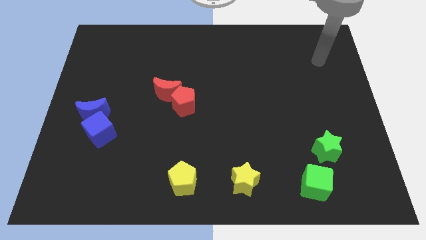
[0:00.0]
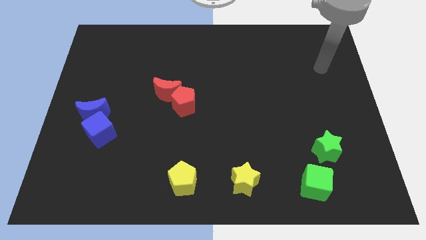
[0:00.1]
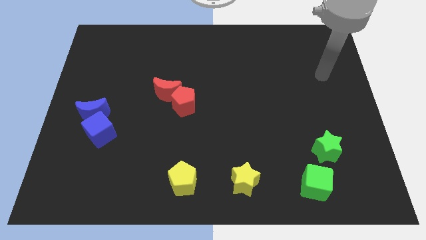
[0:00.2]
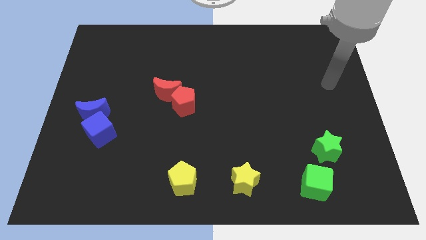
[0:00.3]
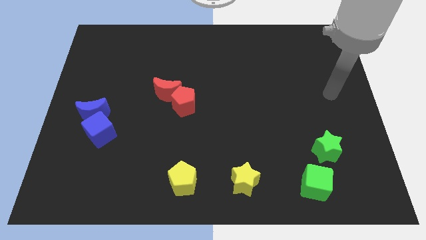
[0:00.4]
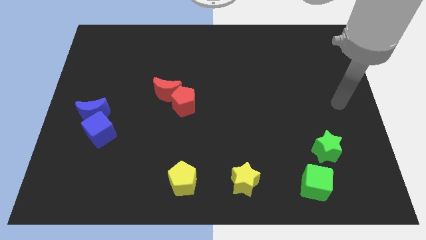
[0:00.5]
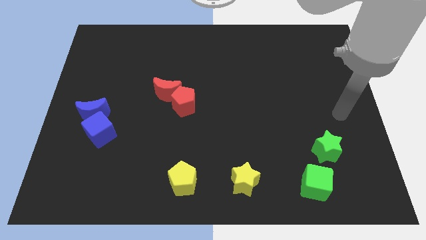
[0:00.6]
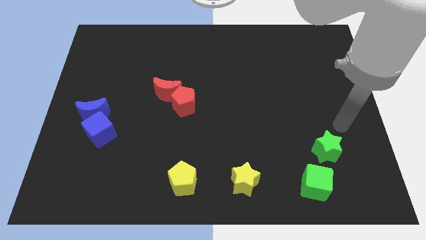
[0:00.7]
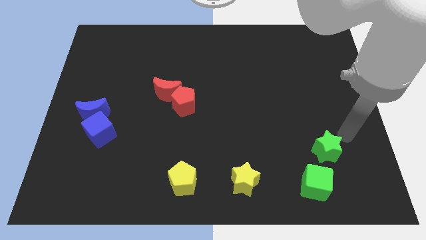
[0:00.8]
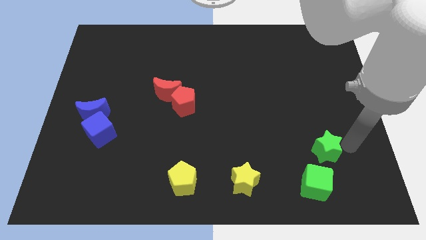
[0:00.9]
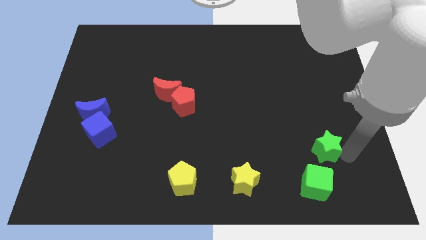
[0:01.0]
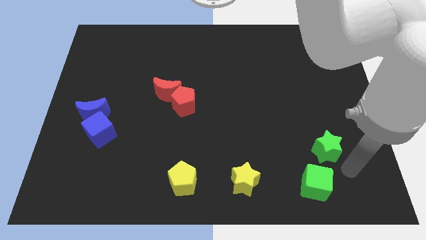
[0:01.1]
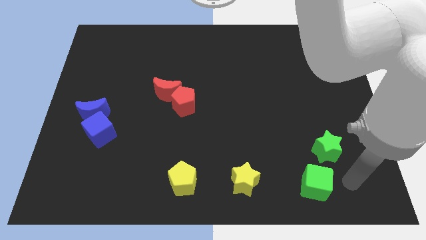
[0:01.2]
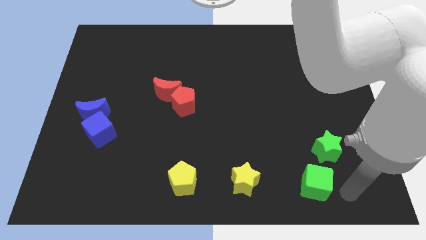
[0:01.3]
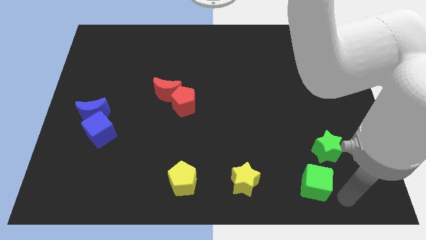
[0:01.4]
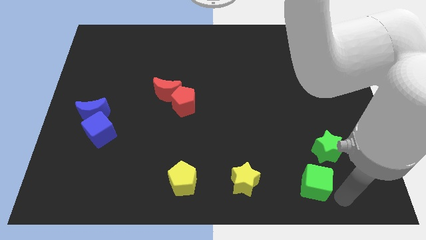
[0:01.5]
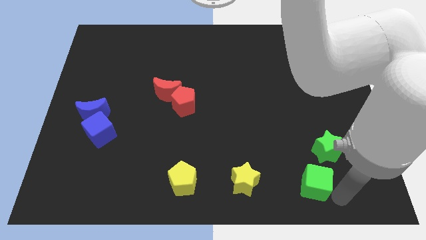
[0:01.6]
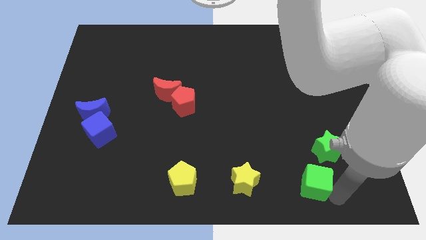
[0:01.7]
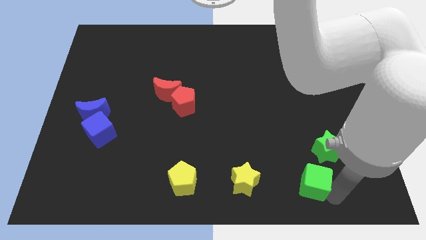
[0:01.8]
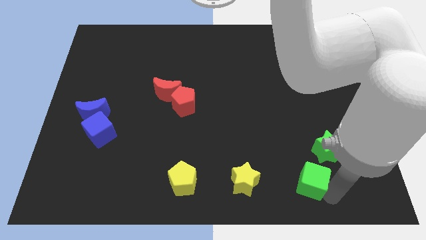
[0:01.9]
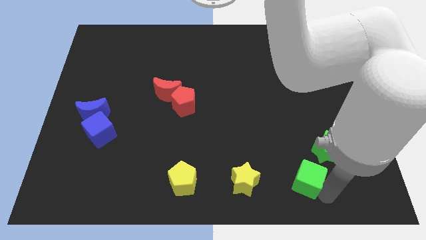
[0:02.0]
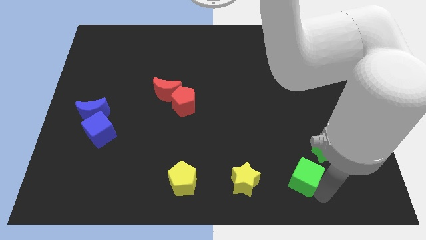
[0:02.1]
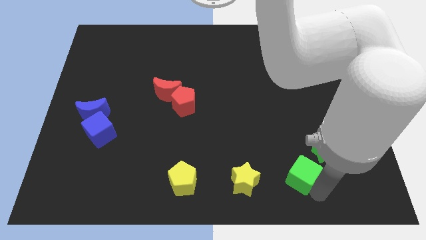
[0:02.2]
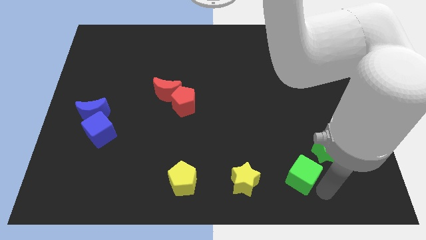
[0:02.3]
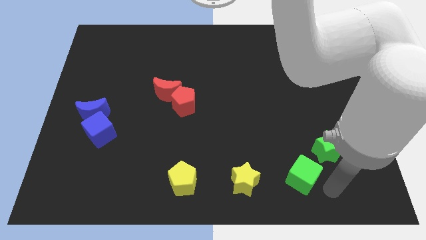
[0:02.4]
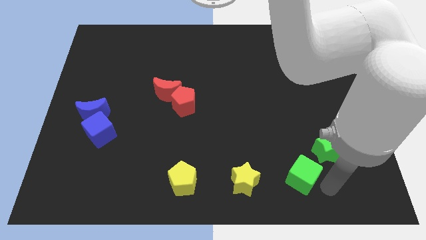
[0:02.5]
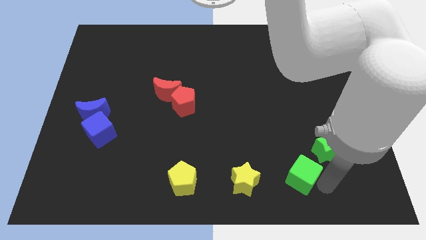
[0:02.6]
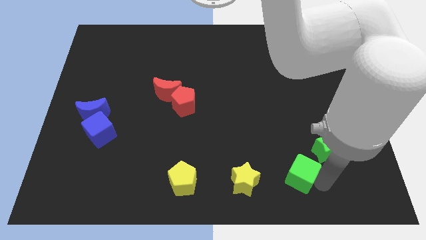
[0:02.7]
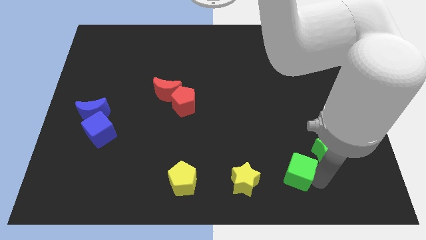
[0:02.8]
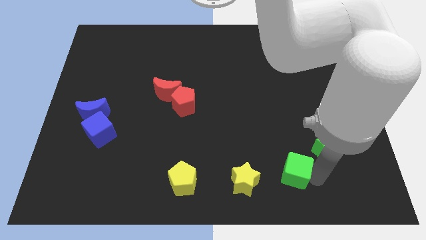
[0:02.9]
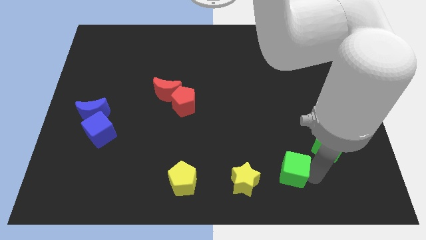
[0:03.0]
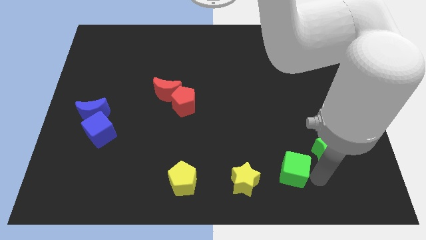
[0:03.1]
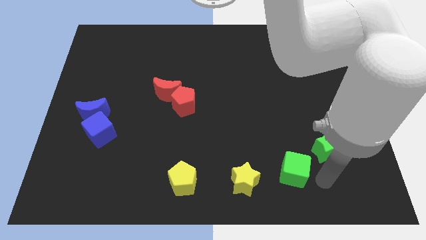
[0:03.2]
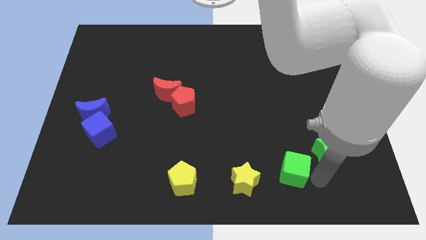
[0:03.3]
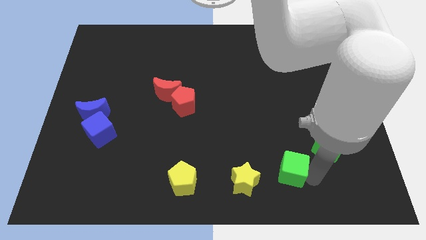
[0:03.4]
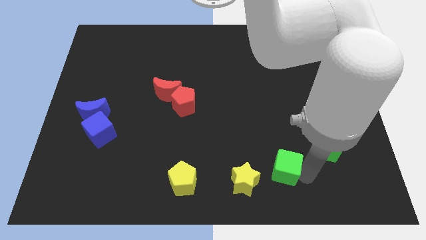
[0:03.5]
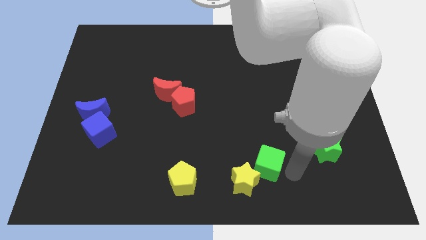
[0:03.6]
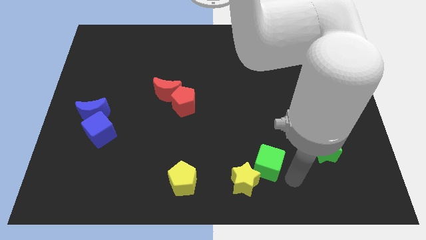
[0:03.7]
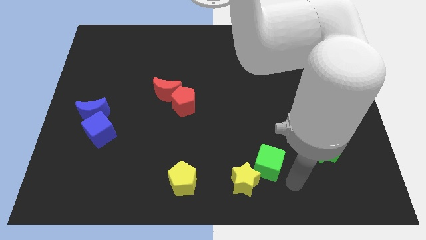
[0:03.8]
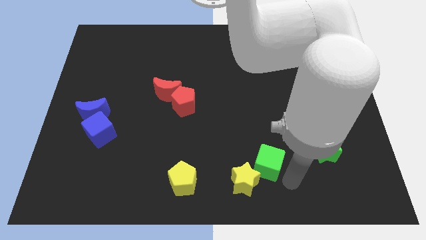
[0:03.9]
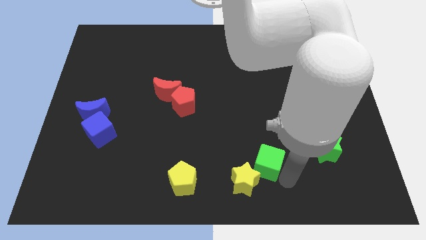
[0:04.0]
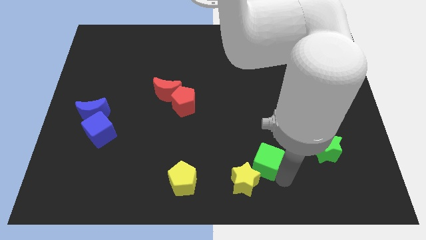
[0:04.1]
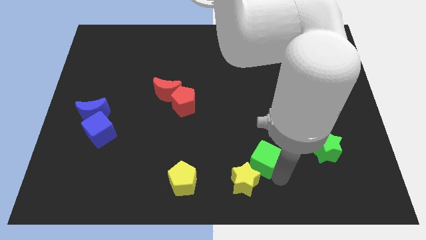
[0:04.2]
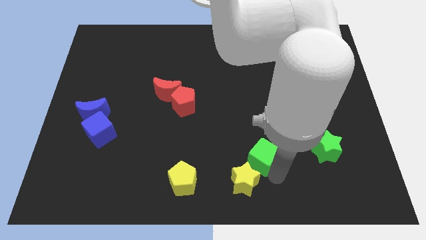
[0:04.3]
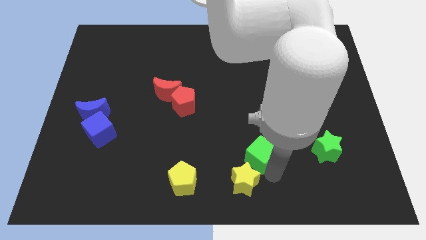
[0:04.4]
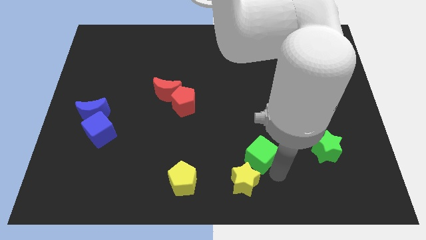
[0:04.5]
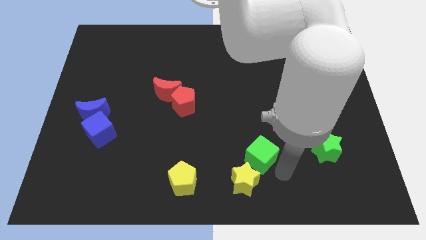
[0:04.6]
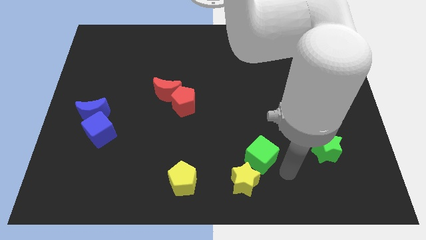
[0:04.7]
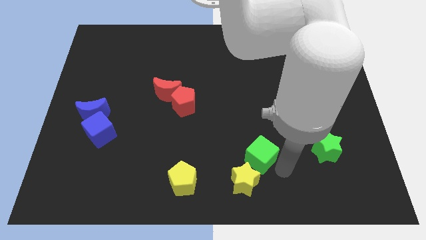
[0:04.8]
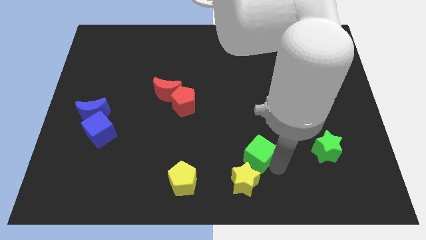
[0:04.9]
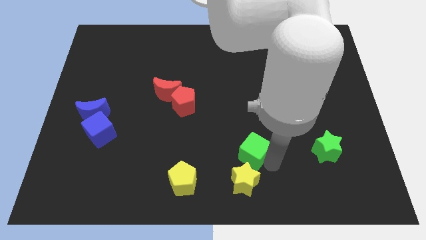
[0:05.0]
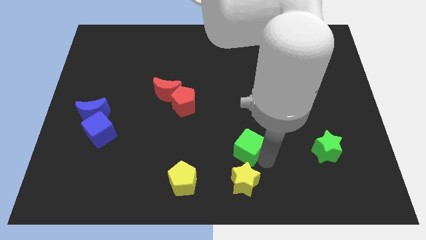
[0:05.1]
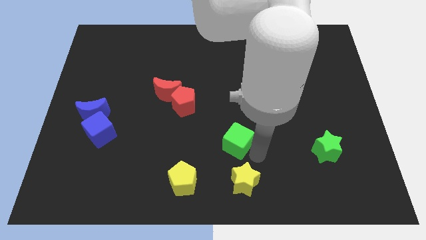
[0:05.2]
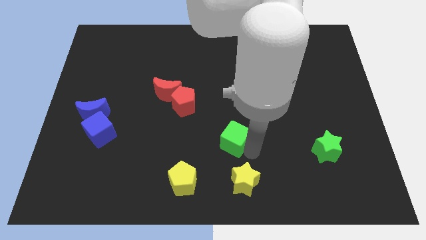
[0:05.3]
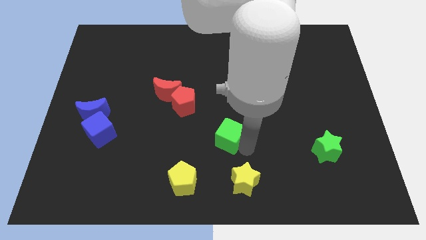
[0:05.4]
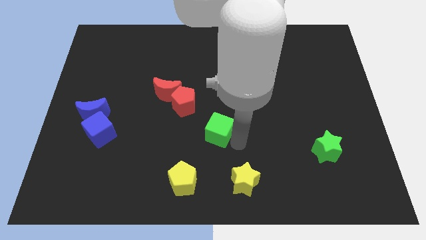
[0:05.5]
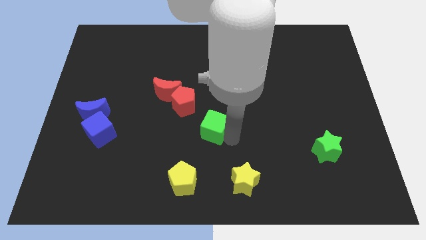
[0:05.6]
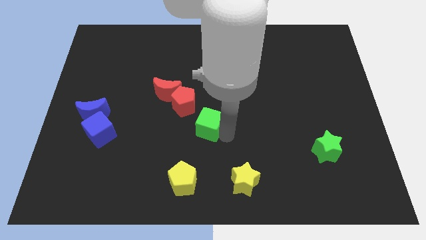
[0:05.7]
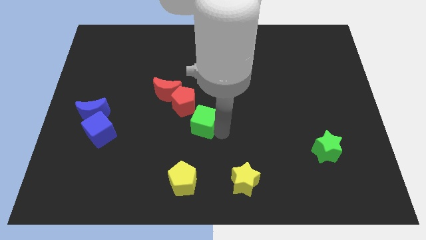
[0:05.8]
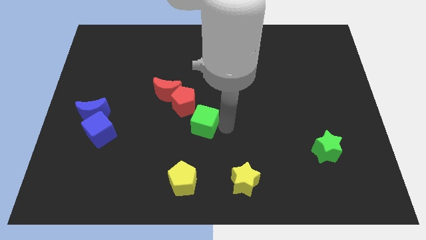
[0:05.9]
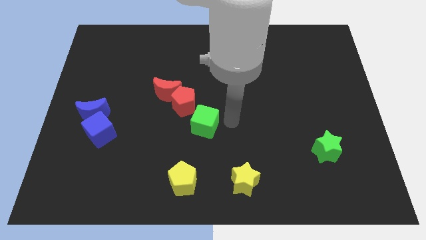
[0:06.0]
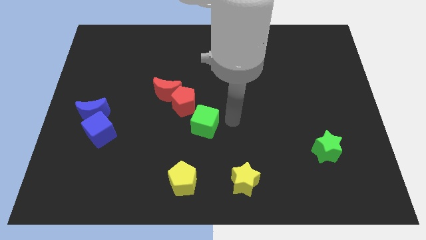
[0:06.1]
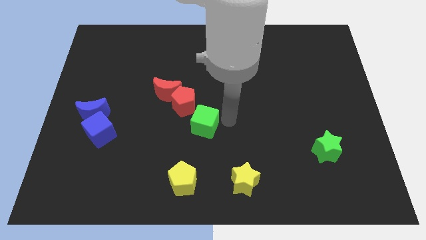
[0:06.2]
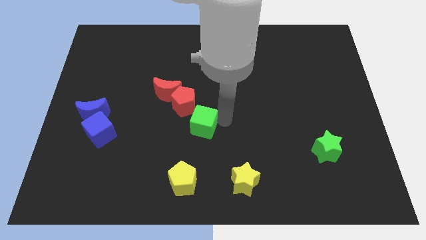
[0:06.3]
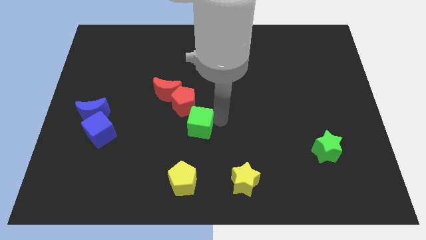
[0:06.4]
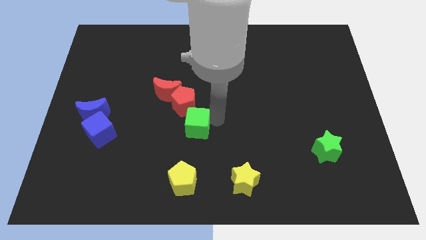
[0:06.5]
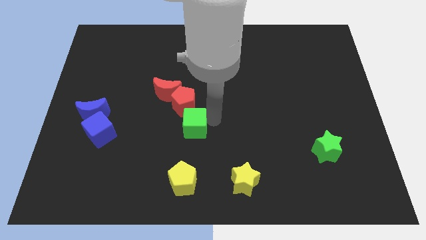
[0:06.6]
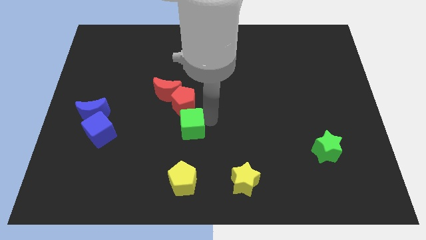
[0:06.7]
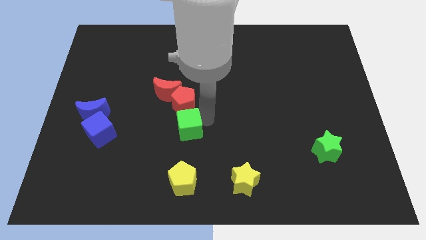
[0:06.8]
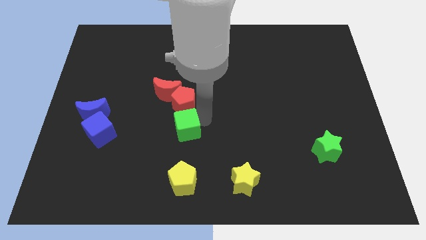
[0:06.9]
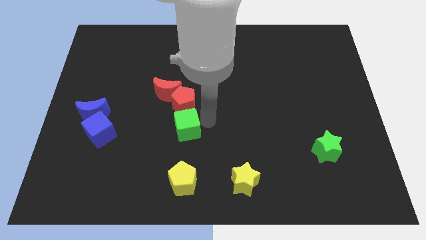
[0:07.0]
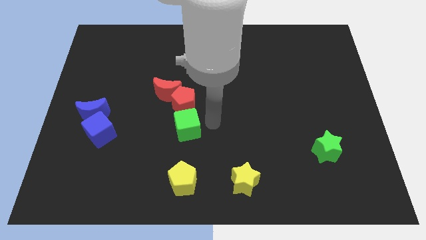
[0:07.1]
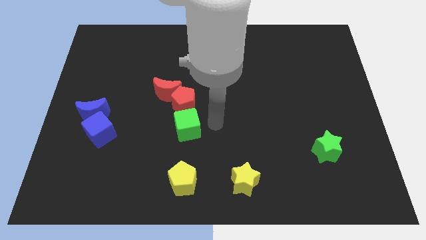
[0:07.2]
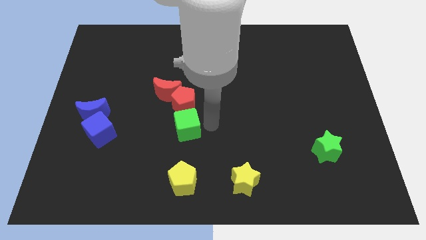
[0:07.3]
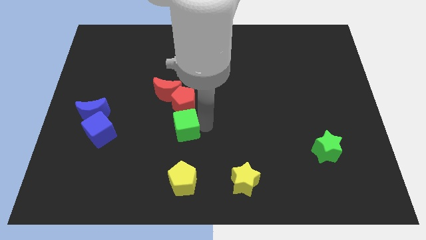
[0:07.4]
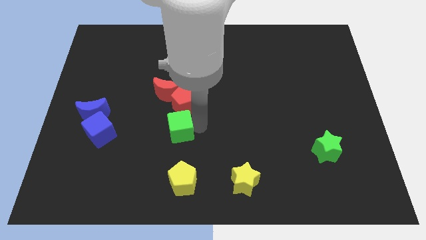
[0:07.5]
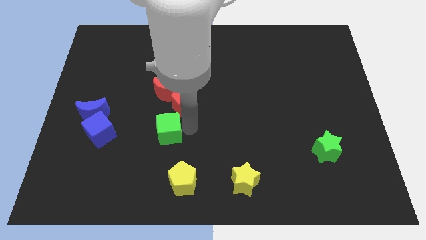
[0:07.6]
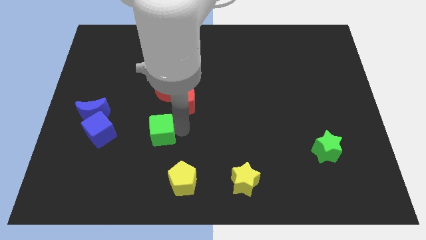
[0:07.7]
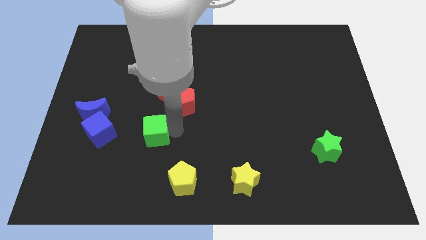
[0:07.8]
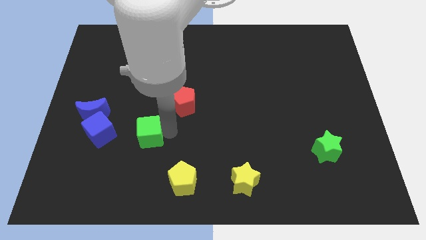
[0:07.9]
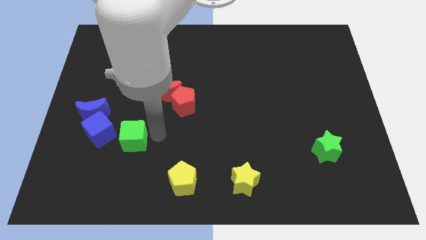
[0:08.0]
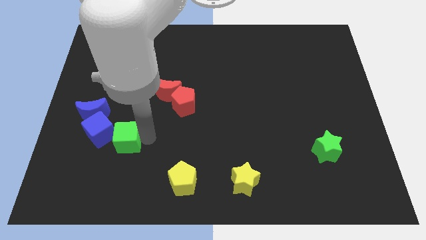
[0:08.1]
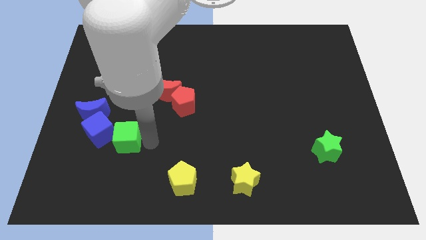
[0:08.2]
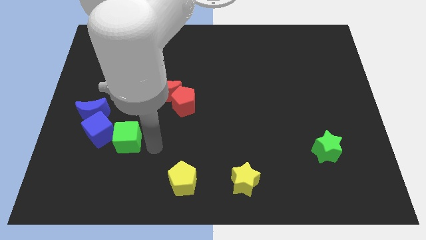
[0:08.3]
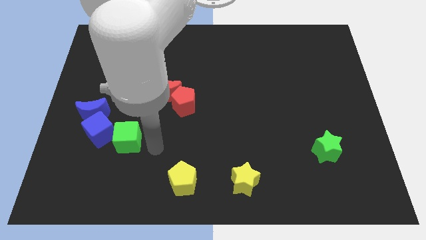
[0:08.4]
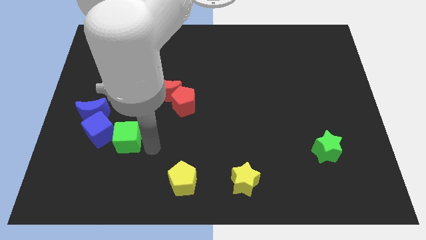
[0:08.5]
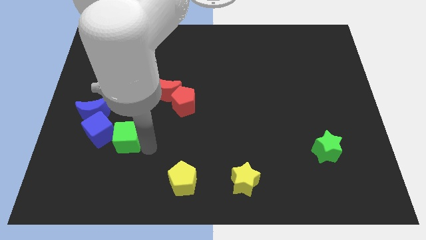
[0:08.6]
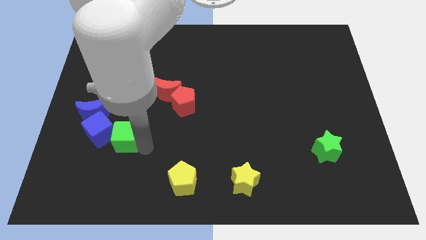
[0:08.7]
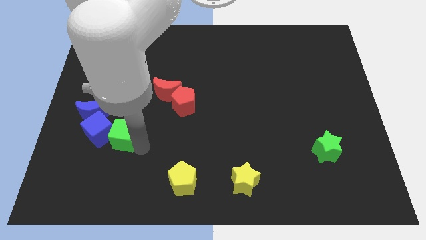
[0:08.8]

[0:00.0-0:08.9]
move the green cube towards the blue cube
